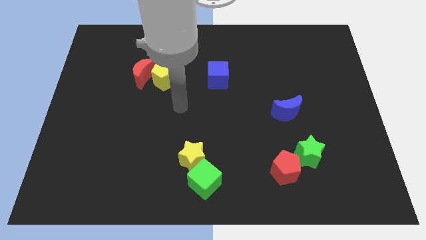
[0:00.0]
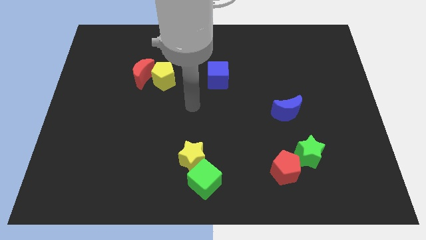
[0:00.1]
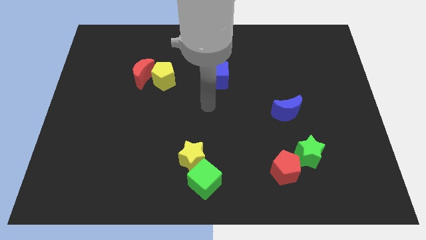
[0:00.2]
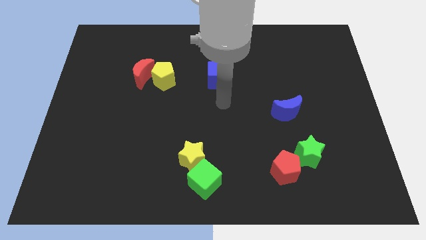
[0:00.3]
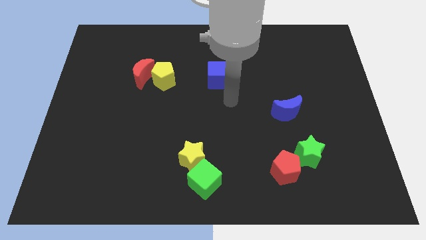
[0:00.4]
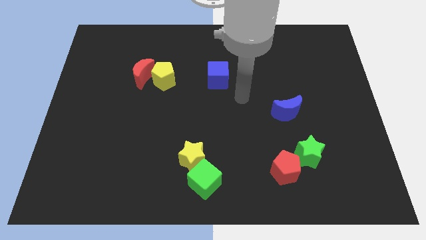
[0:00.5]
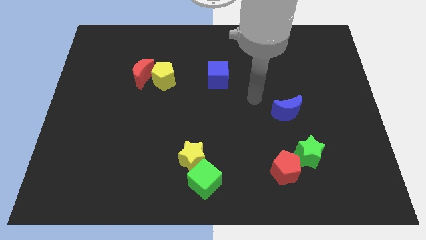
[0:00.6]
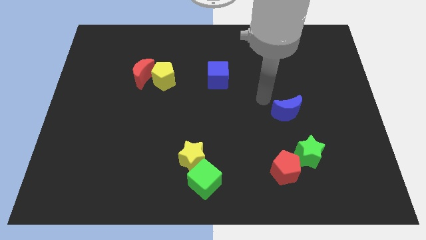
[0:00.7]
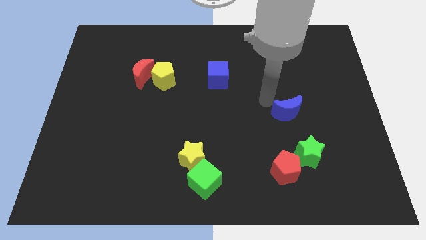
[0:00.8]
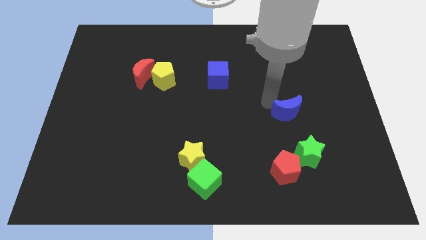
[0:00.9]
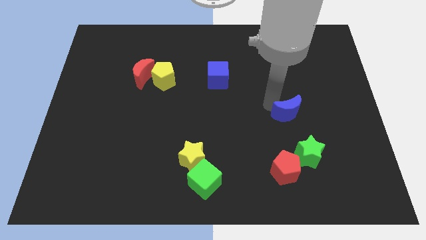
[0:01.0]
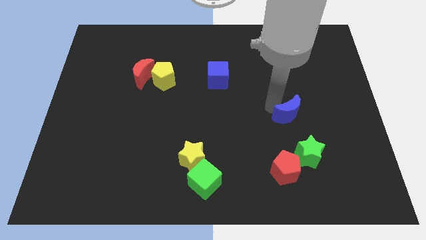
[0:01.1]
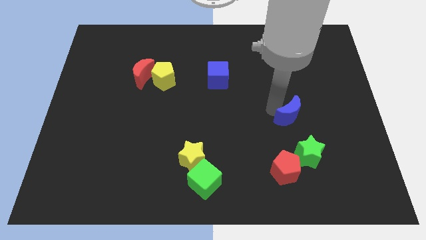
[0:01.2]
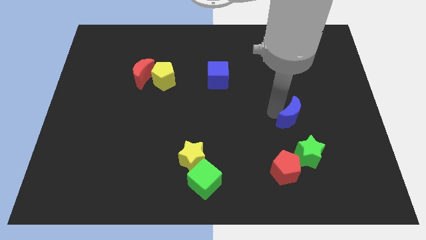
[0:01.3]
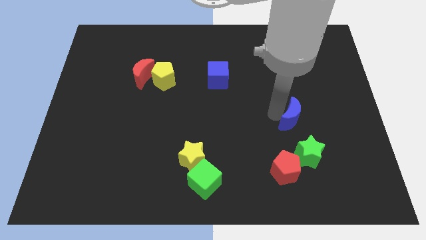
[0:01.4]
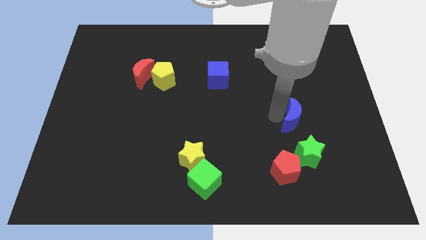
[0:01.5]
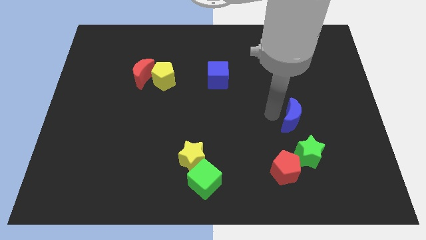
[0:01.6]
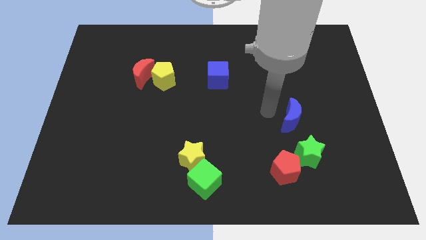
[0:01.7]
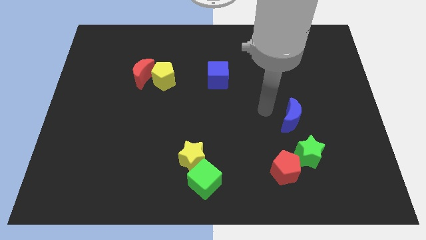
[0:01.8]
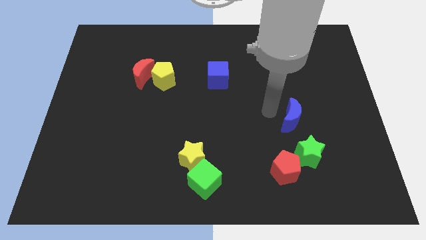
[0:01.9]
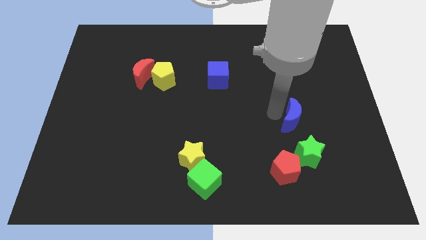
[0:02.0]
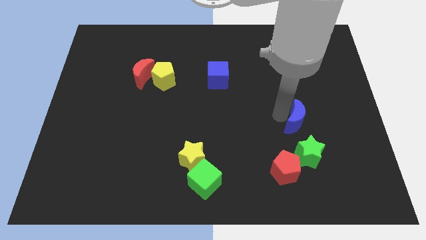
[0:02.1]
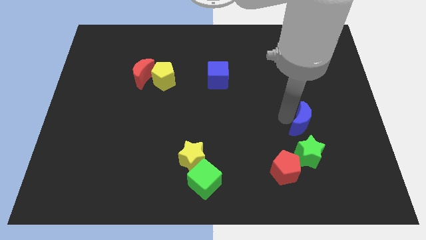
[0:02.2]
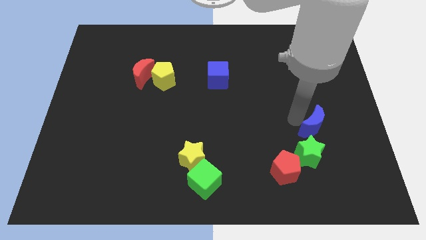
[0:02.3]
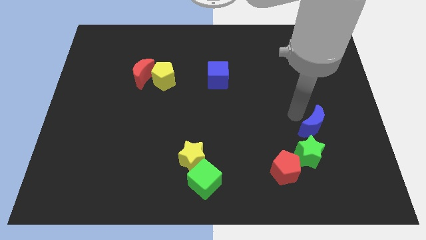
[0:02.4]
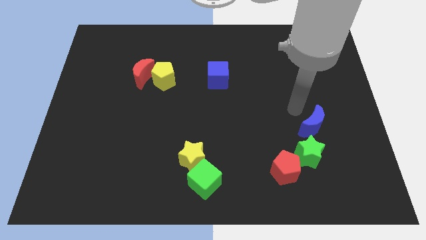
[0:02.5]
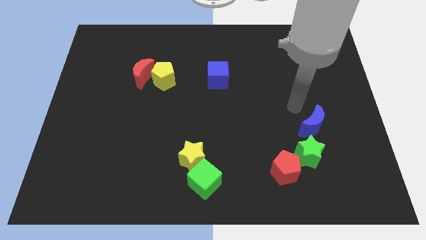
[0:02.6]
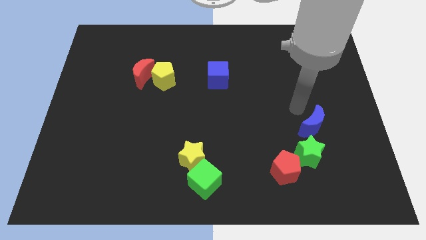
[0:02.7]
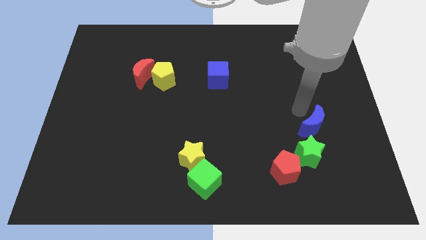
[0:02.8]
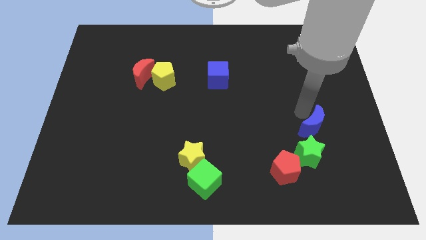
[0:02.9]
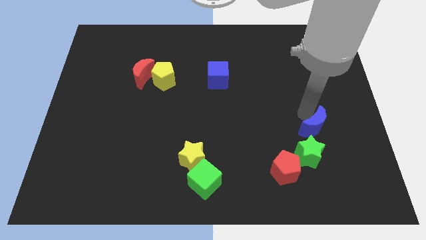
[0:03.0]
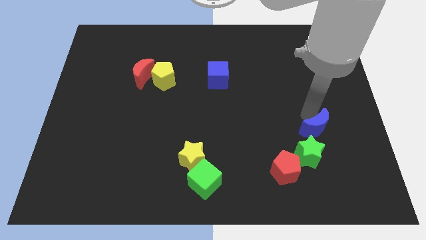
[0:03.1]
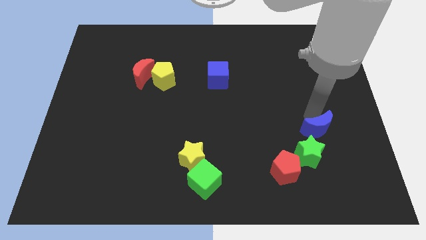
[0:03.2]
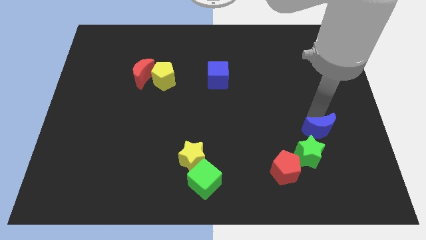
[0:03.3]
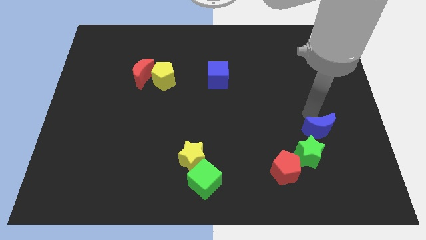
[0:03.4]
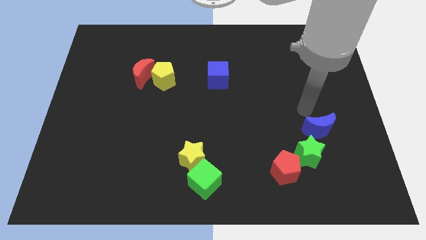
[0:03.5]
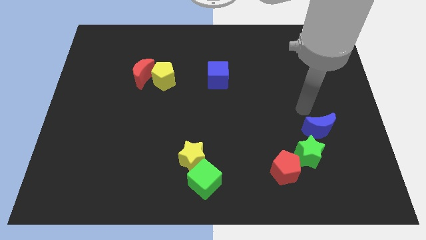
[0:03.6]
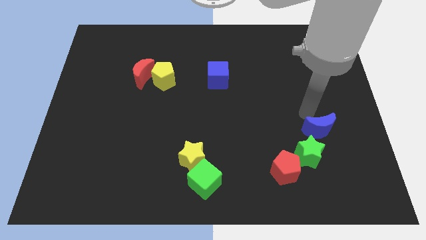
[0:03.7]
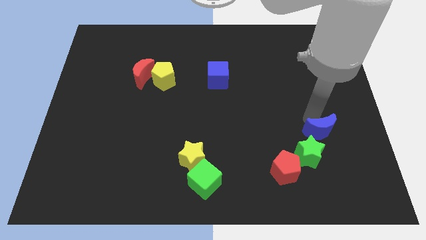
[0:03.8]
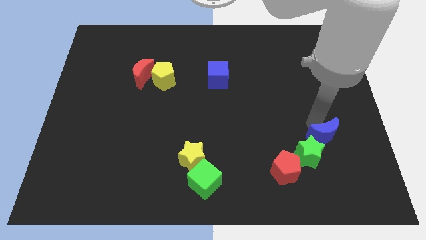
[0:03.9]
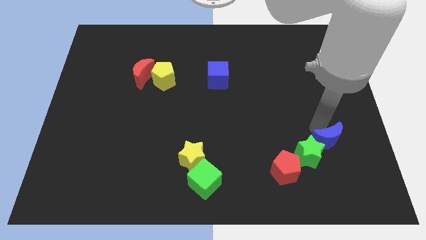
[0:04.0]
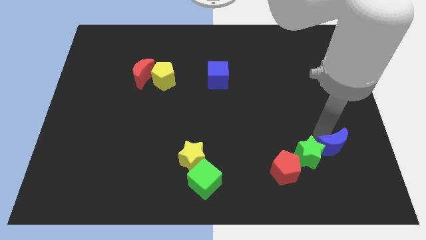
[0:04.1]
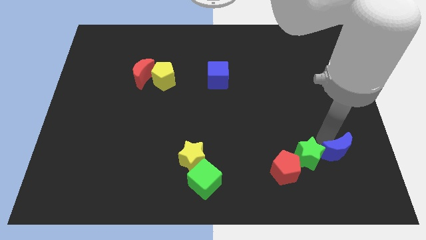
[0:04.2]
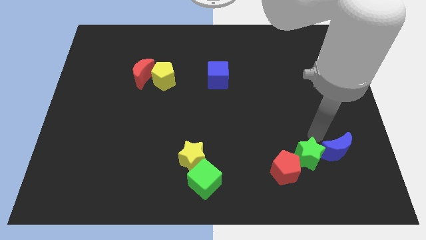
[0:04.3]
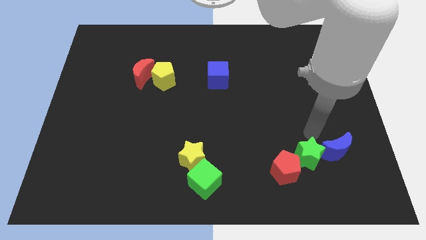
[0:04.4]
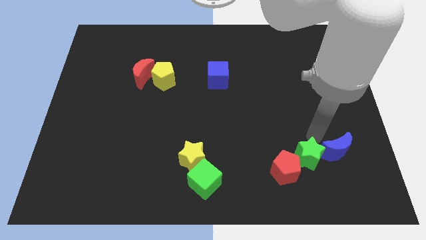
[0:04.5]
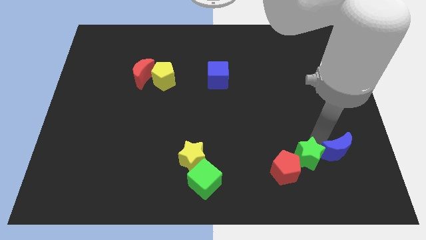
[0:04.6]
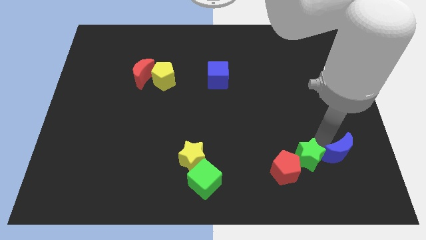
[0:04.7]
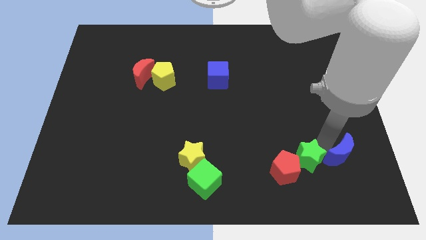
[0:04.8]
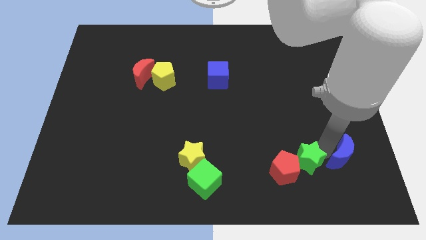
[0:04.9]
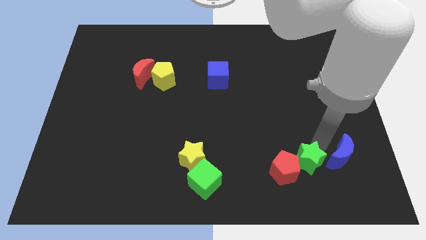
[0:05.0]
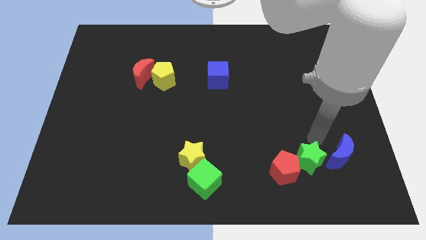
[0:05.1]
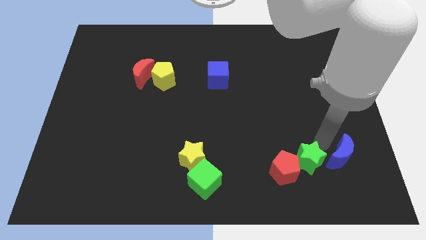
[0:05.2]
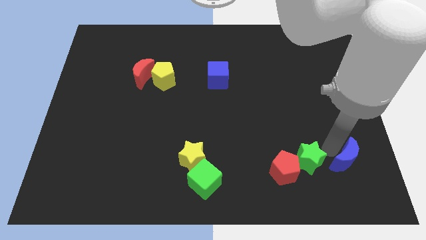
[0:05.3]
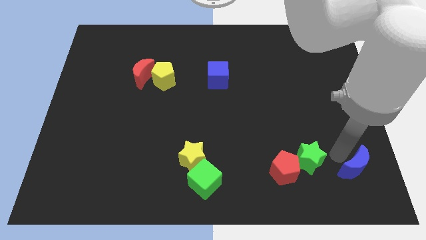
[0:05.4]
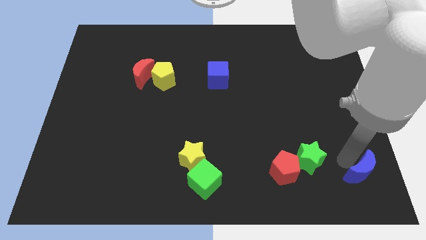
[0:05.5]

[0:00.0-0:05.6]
move the blue moon to the bottom right

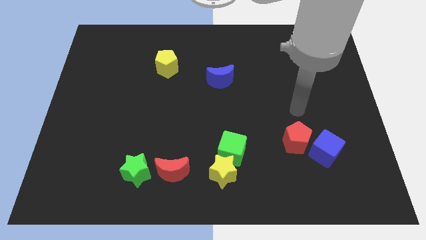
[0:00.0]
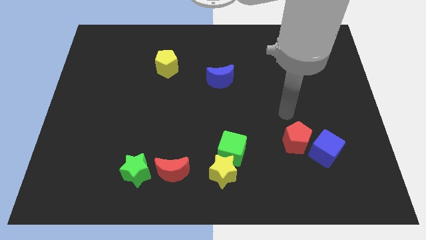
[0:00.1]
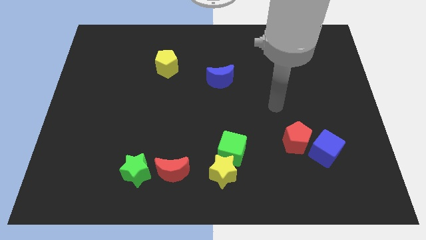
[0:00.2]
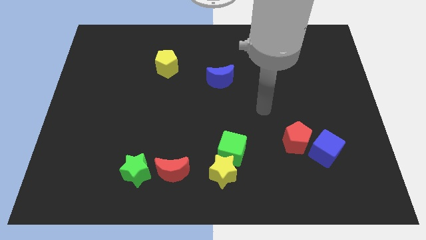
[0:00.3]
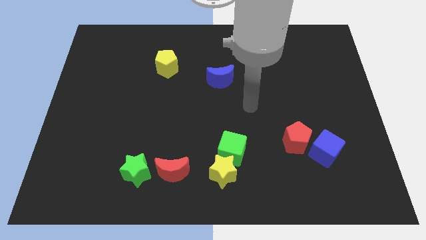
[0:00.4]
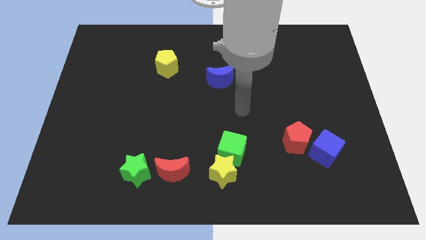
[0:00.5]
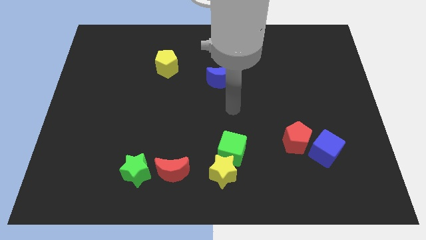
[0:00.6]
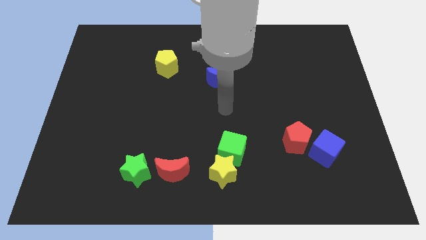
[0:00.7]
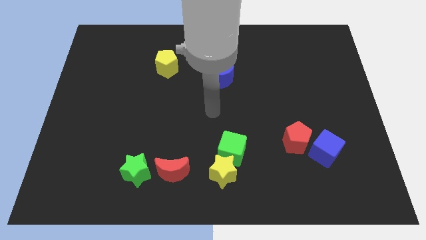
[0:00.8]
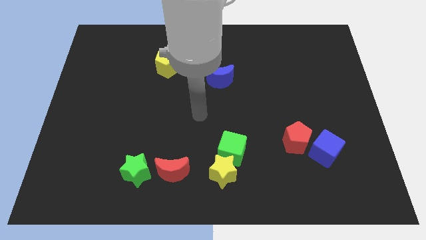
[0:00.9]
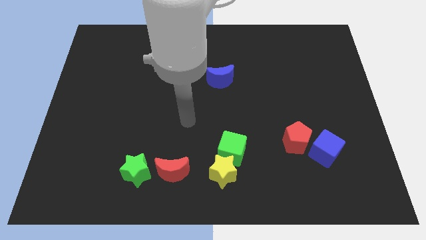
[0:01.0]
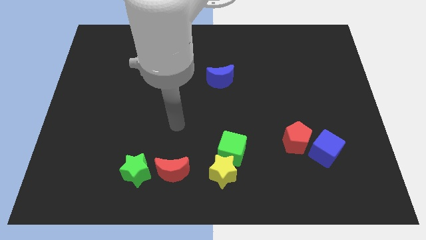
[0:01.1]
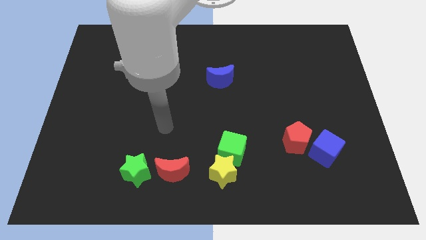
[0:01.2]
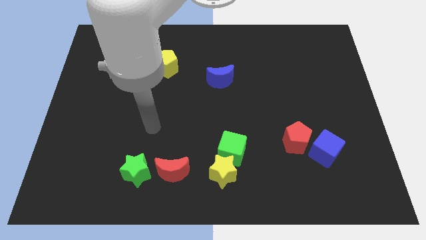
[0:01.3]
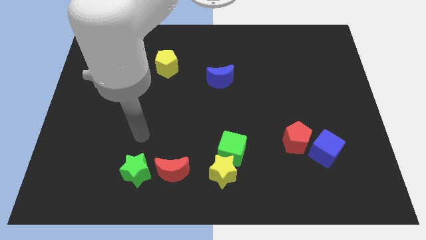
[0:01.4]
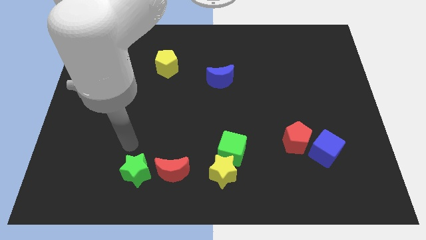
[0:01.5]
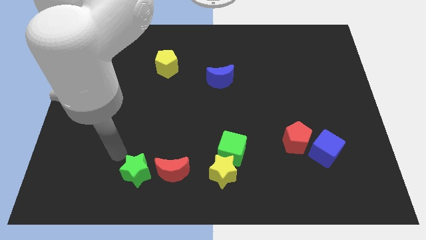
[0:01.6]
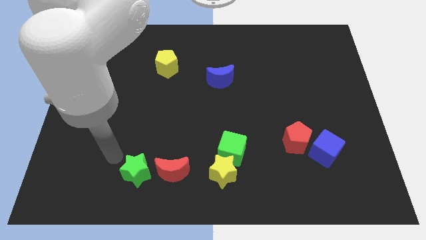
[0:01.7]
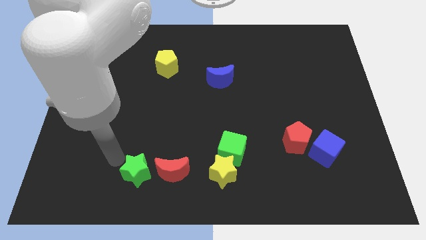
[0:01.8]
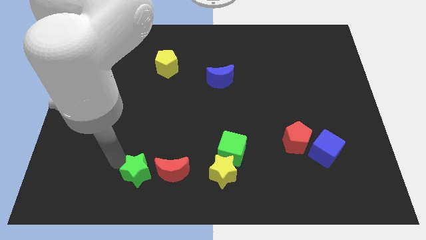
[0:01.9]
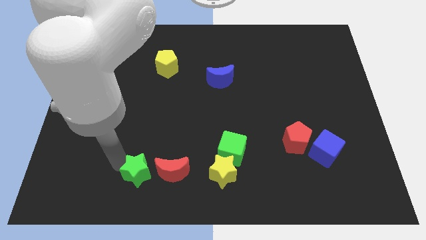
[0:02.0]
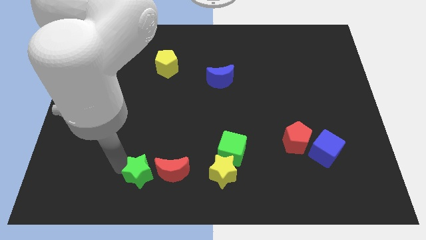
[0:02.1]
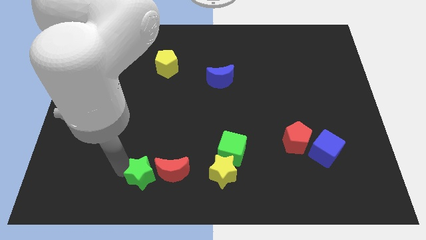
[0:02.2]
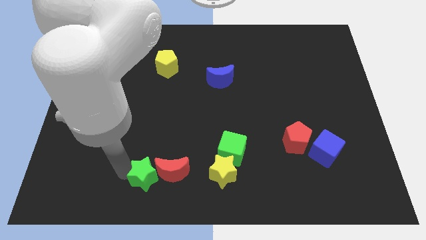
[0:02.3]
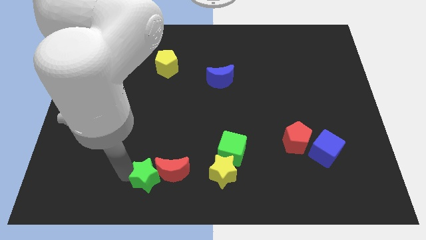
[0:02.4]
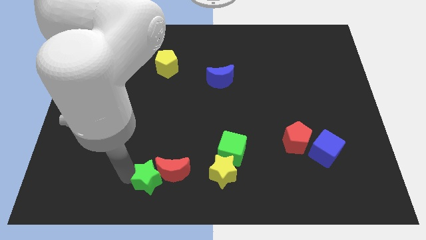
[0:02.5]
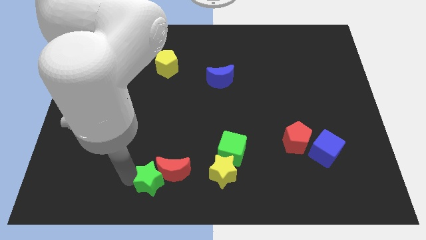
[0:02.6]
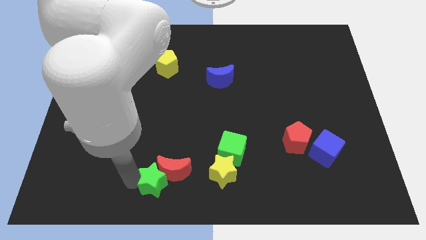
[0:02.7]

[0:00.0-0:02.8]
slide the green star to the bottom side
